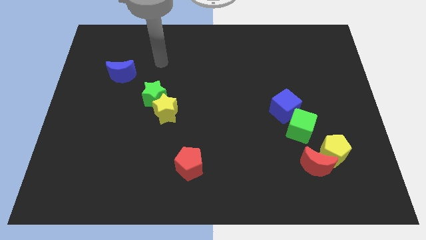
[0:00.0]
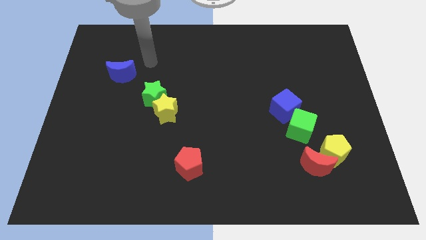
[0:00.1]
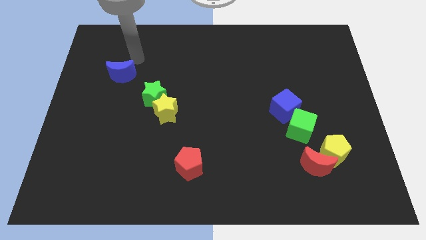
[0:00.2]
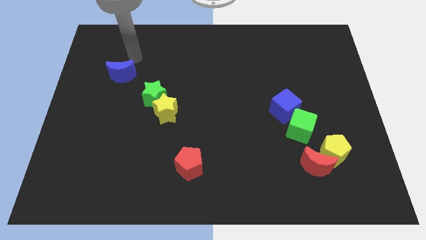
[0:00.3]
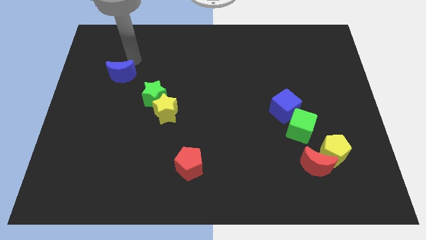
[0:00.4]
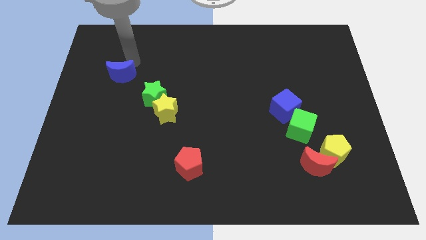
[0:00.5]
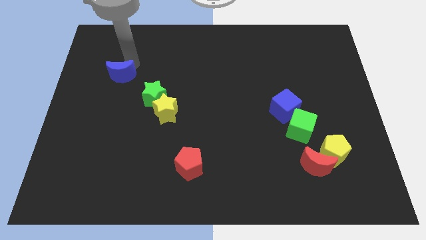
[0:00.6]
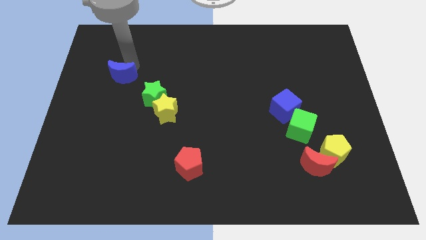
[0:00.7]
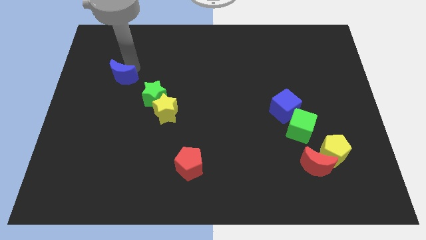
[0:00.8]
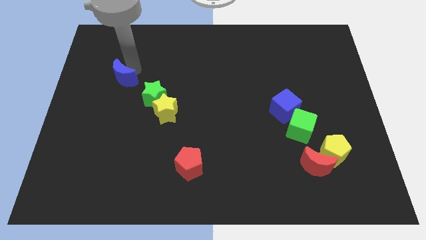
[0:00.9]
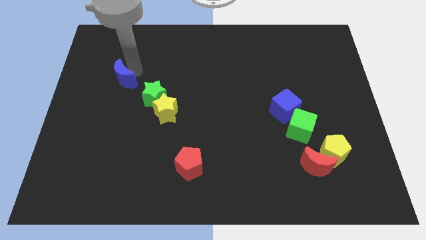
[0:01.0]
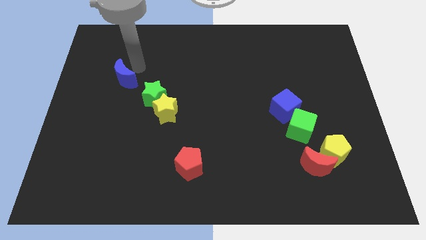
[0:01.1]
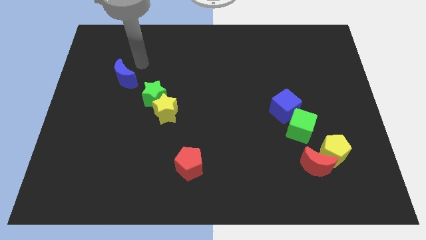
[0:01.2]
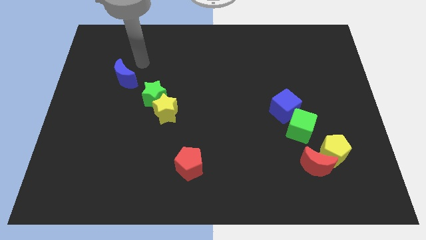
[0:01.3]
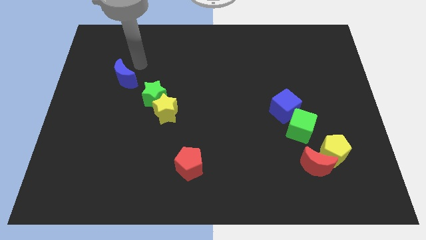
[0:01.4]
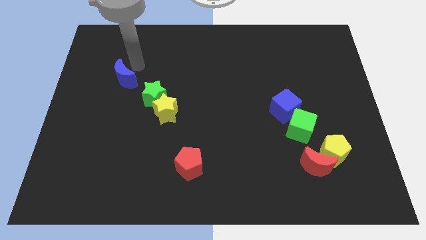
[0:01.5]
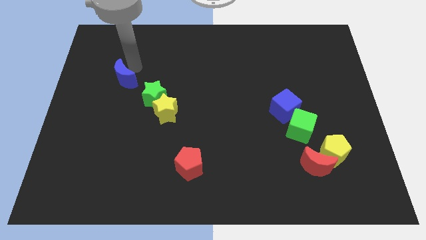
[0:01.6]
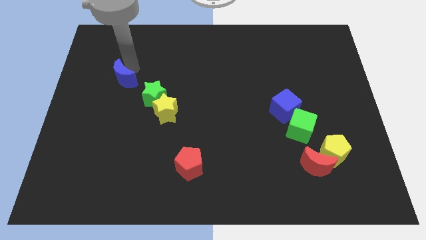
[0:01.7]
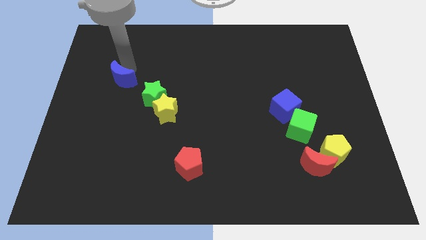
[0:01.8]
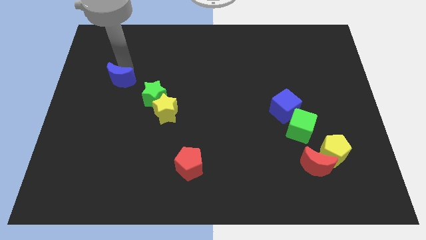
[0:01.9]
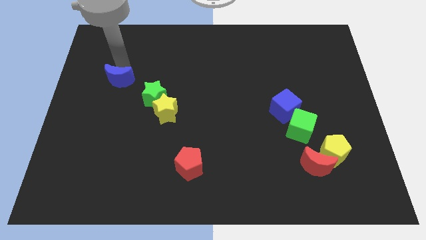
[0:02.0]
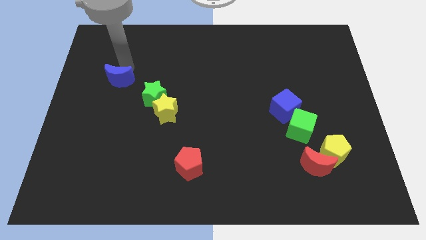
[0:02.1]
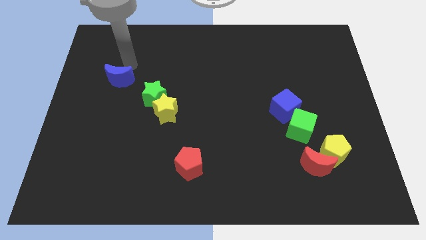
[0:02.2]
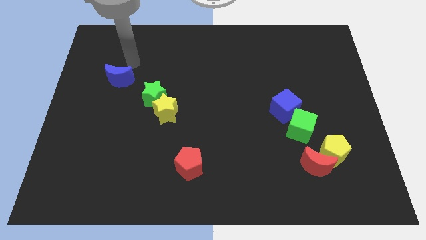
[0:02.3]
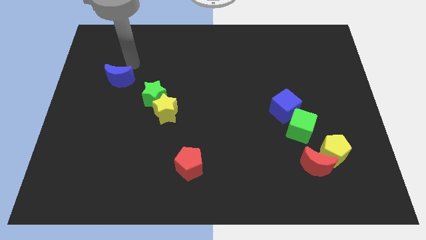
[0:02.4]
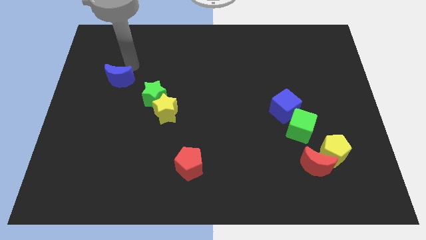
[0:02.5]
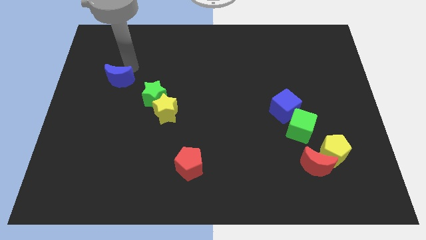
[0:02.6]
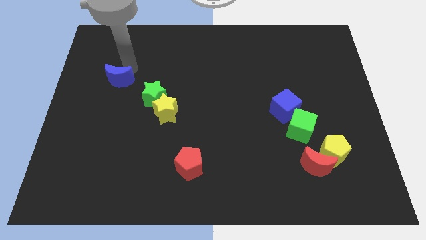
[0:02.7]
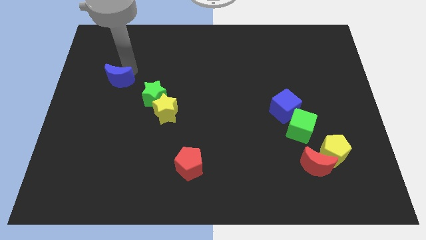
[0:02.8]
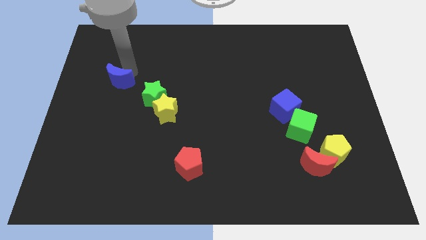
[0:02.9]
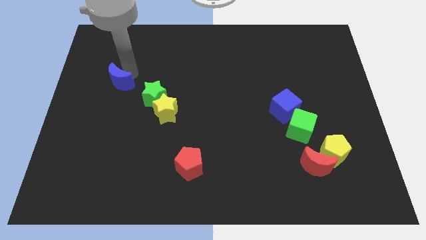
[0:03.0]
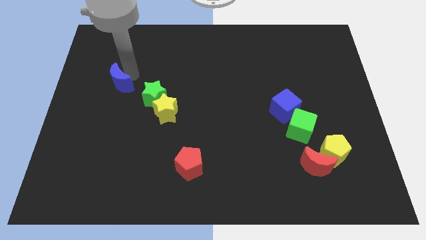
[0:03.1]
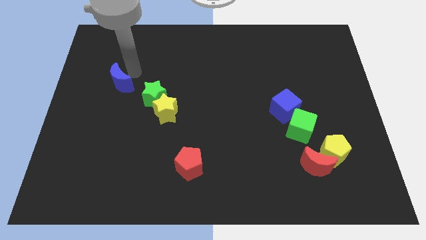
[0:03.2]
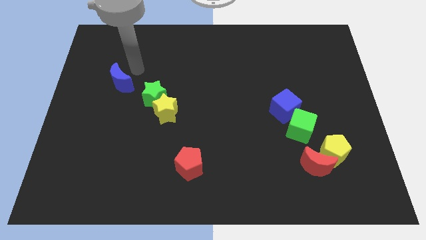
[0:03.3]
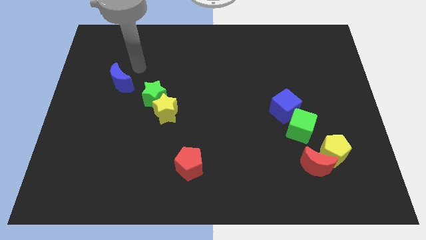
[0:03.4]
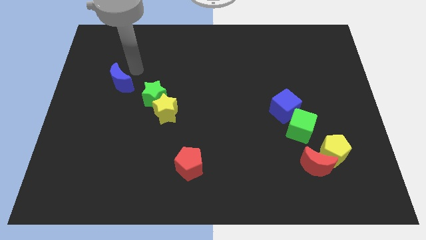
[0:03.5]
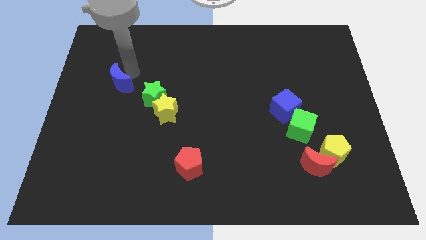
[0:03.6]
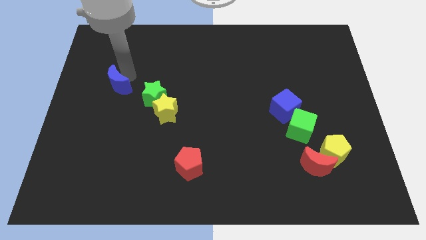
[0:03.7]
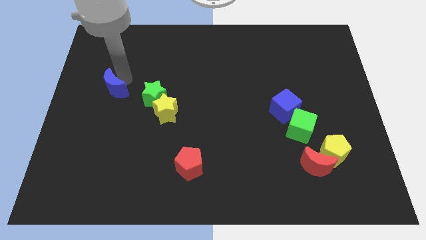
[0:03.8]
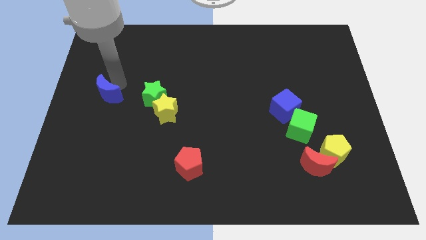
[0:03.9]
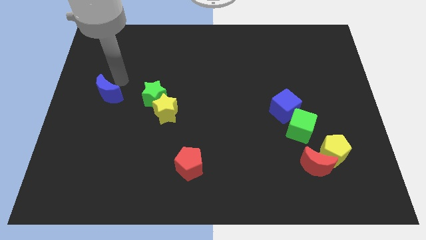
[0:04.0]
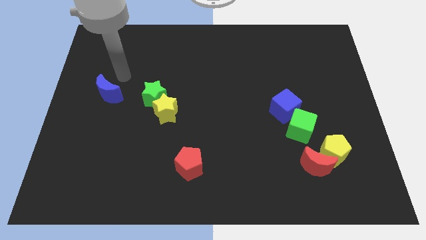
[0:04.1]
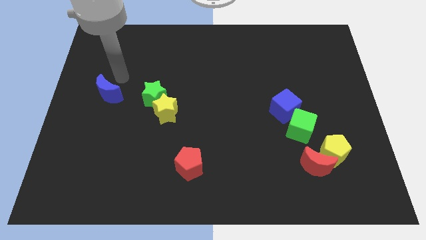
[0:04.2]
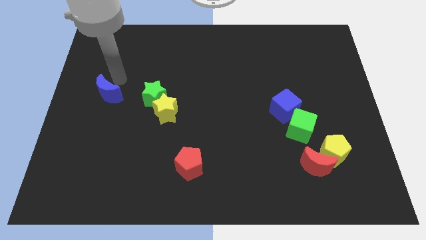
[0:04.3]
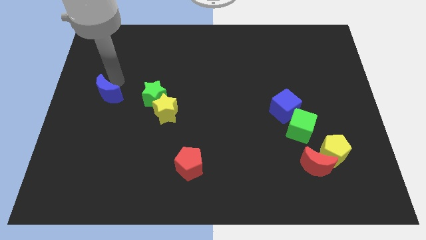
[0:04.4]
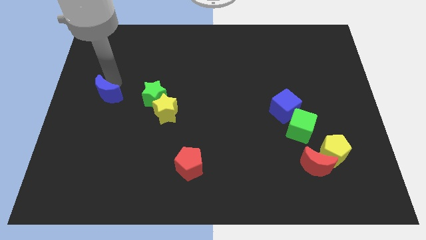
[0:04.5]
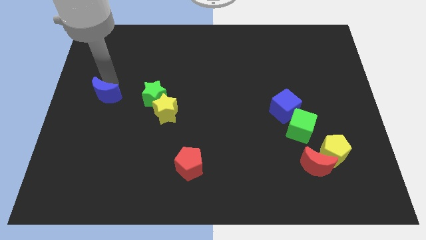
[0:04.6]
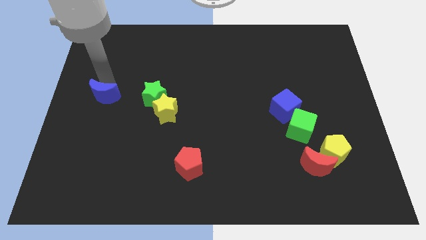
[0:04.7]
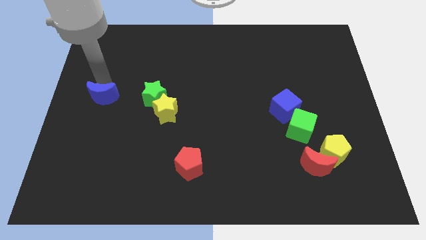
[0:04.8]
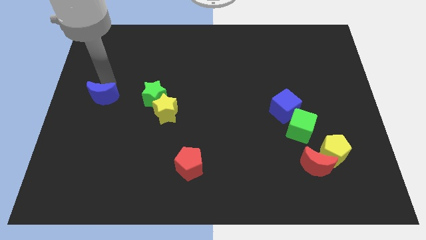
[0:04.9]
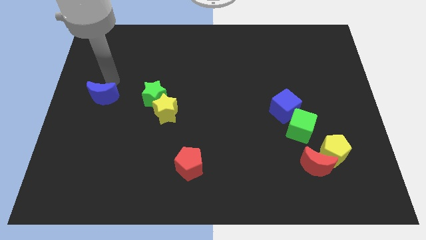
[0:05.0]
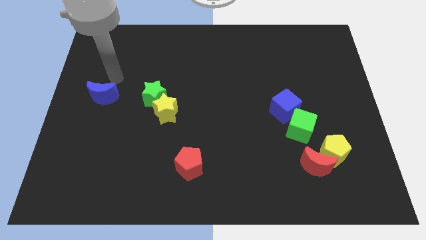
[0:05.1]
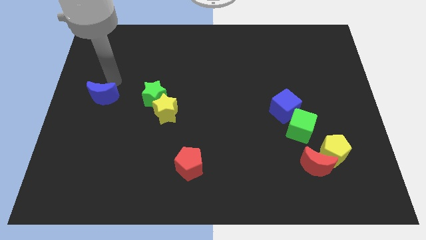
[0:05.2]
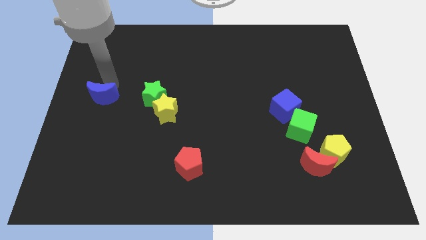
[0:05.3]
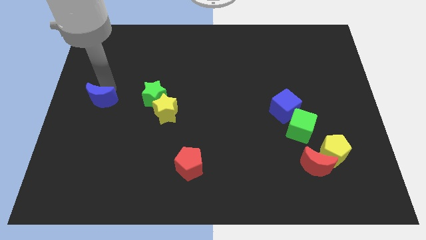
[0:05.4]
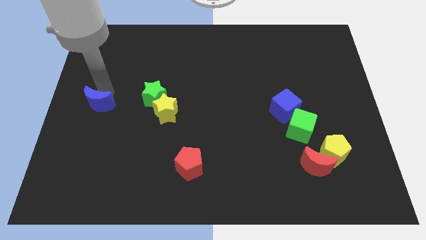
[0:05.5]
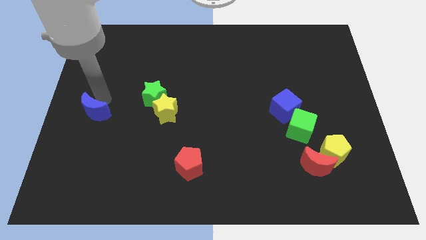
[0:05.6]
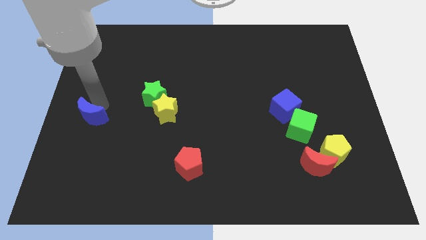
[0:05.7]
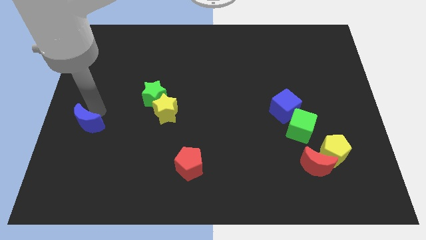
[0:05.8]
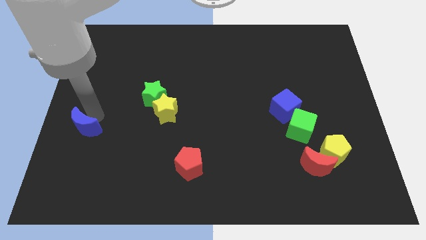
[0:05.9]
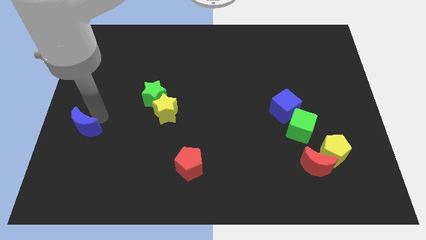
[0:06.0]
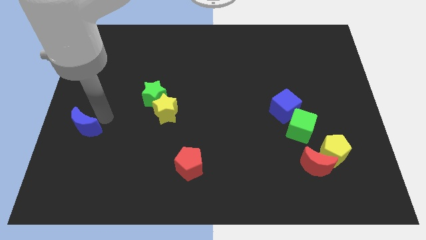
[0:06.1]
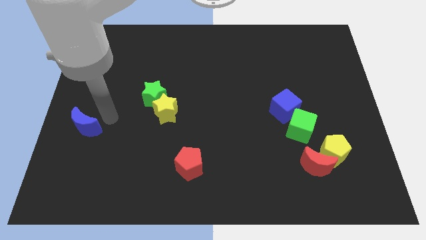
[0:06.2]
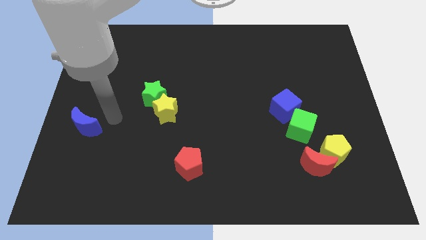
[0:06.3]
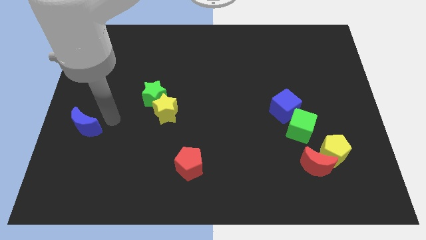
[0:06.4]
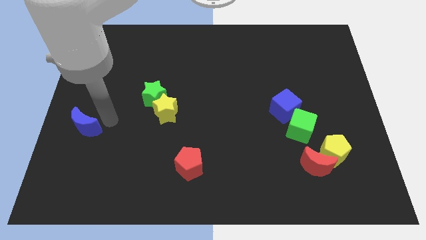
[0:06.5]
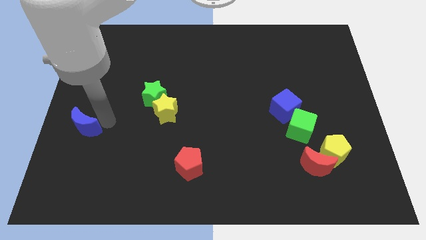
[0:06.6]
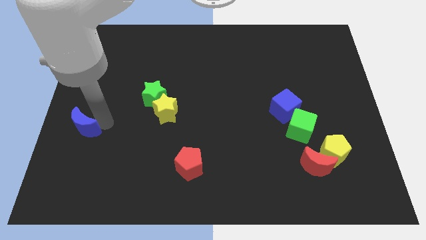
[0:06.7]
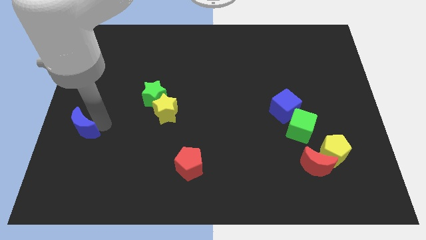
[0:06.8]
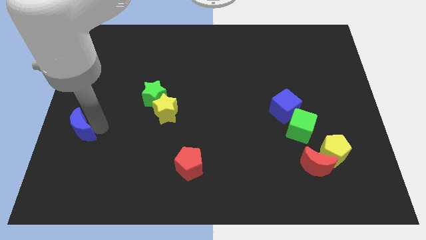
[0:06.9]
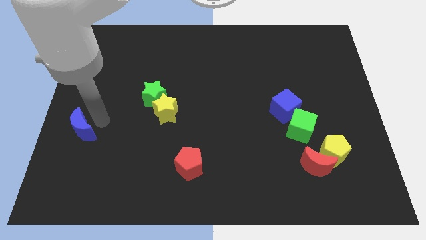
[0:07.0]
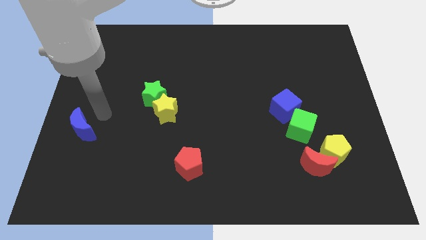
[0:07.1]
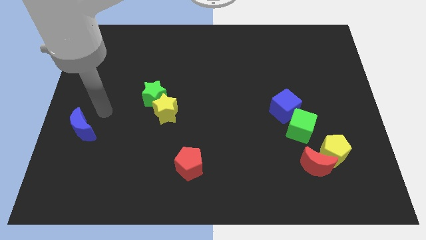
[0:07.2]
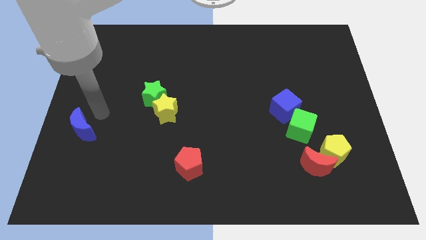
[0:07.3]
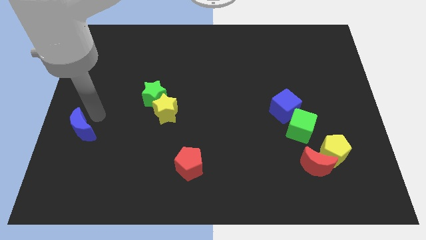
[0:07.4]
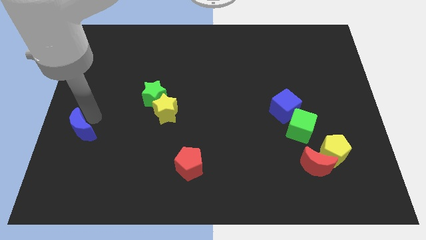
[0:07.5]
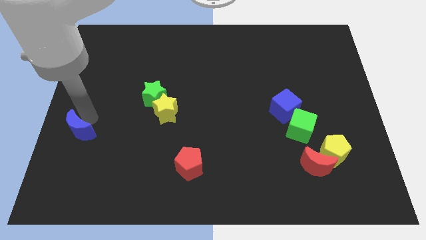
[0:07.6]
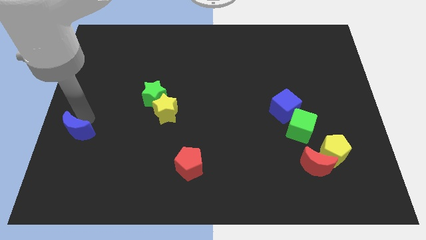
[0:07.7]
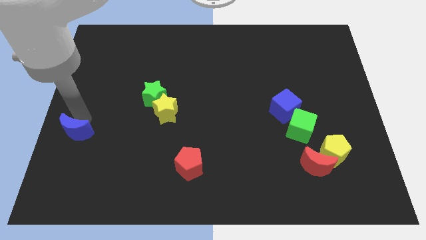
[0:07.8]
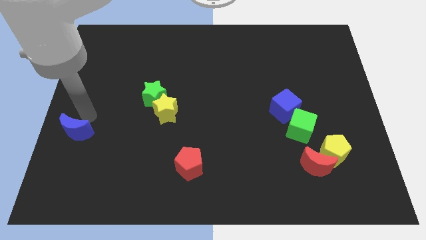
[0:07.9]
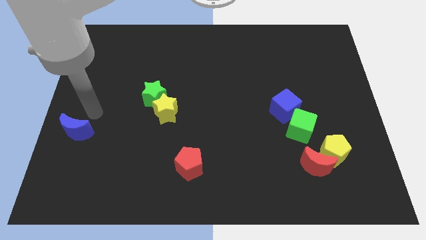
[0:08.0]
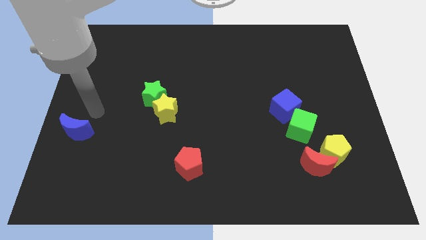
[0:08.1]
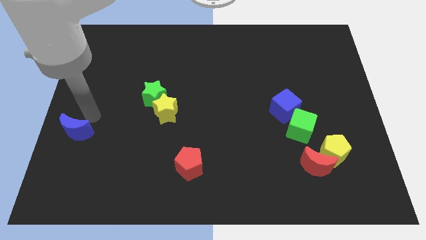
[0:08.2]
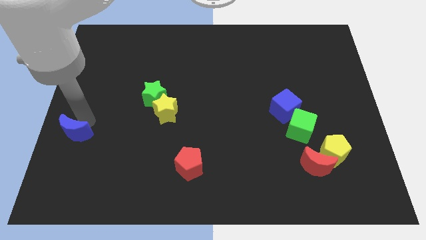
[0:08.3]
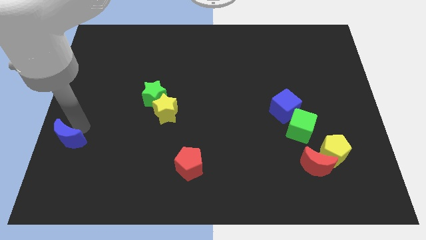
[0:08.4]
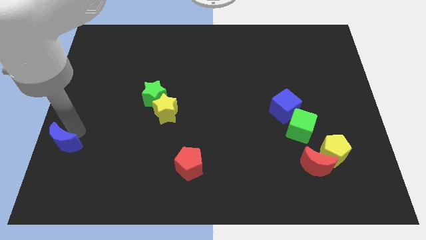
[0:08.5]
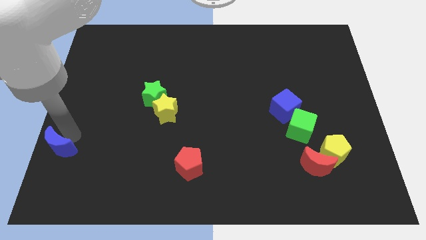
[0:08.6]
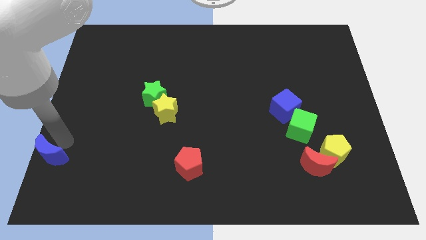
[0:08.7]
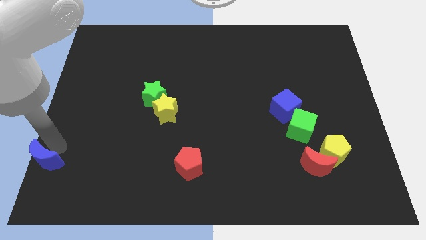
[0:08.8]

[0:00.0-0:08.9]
slide the blue moon to the lower left corner
